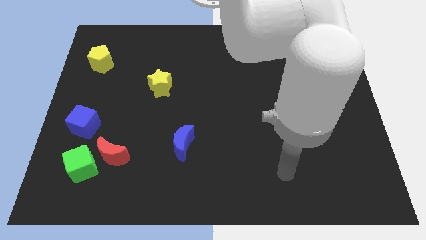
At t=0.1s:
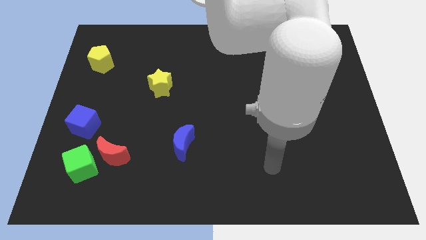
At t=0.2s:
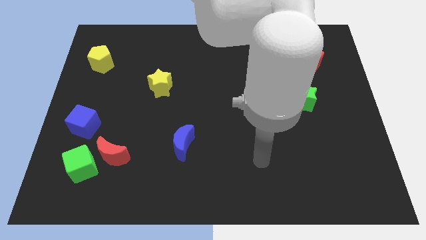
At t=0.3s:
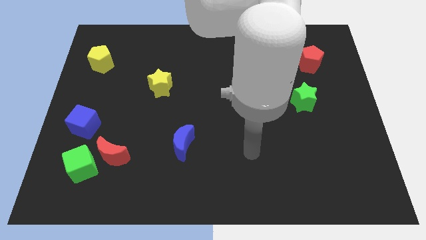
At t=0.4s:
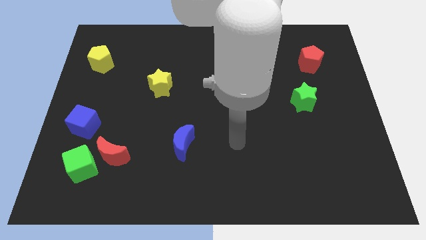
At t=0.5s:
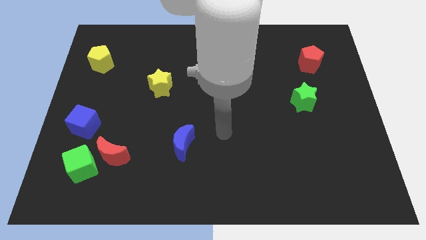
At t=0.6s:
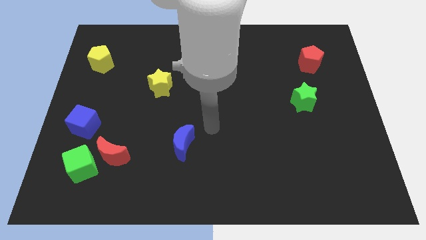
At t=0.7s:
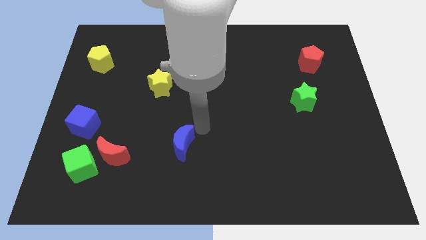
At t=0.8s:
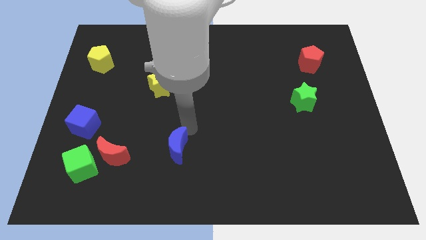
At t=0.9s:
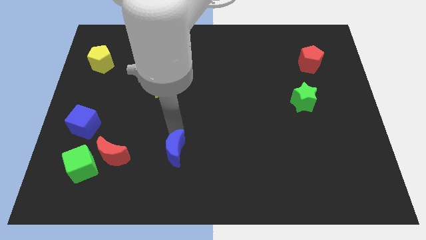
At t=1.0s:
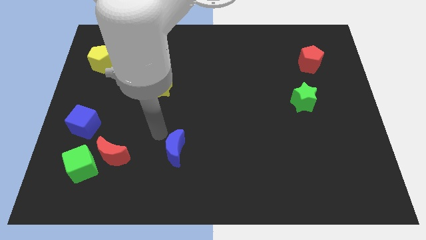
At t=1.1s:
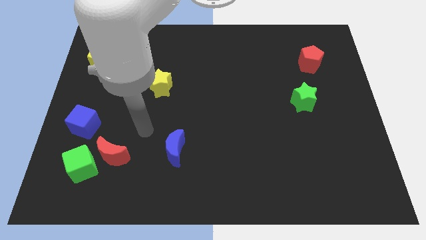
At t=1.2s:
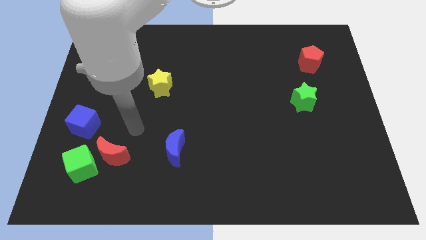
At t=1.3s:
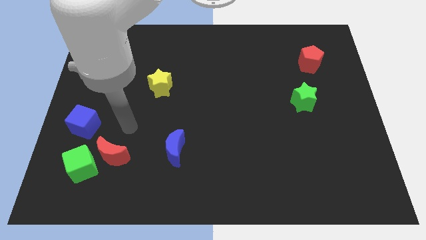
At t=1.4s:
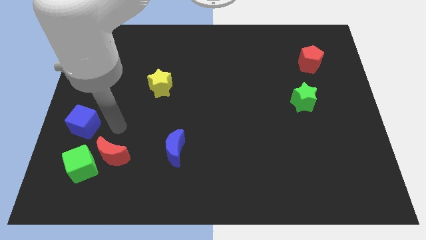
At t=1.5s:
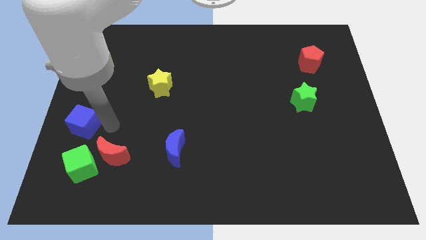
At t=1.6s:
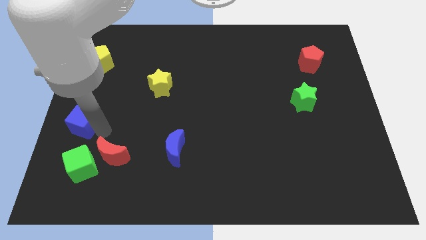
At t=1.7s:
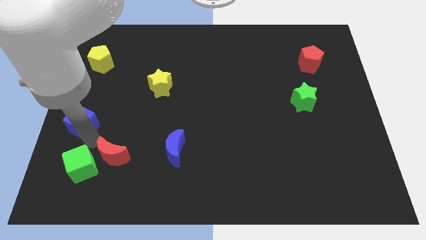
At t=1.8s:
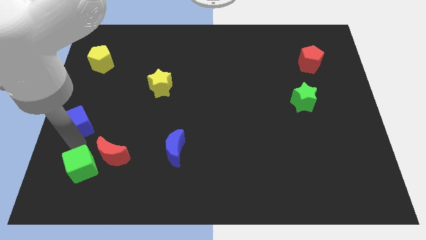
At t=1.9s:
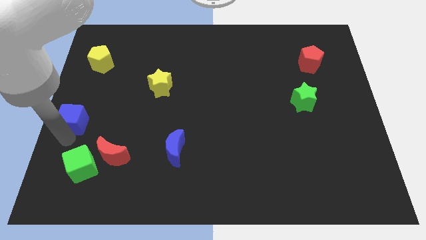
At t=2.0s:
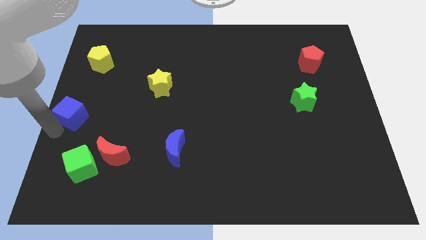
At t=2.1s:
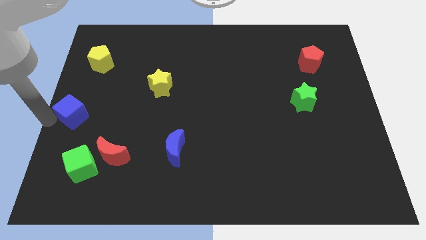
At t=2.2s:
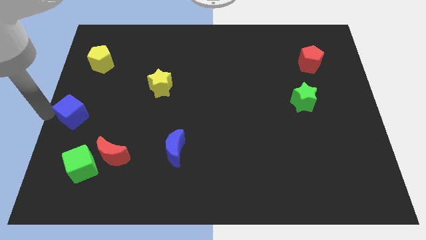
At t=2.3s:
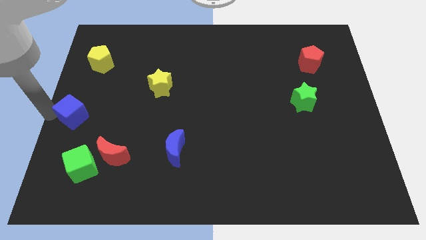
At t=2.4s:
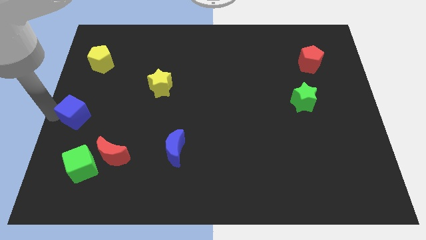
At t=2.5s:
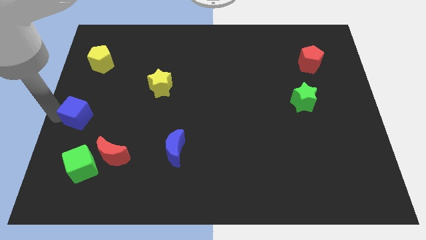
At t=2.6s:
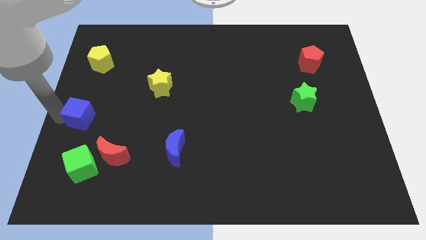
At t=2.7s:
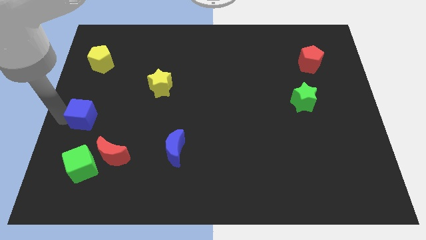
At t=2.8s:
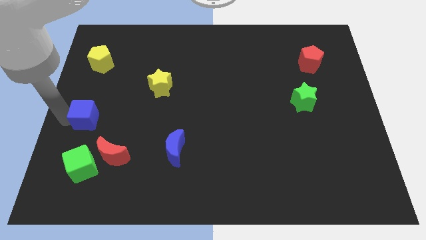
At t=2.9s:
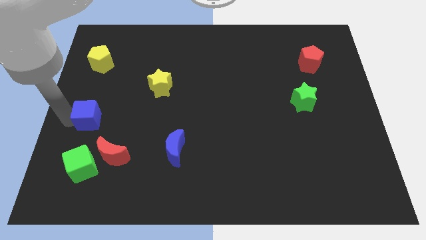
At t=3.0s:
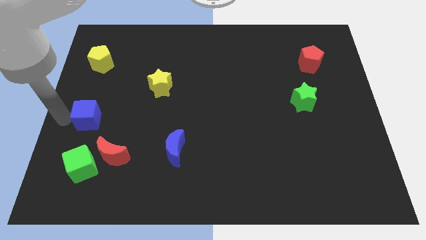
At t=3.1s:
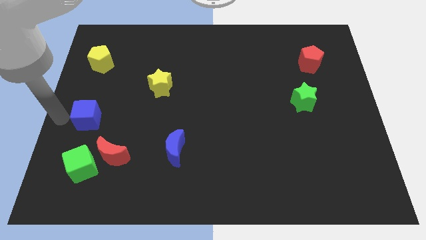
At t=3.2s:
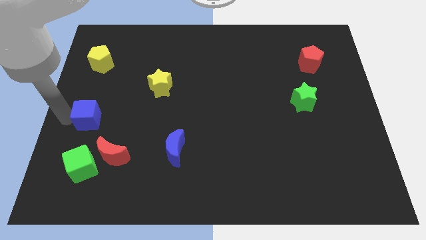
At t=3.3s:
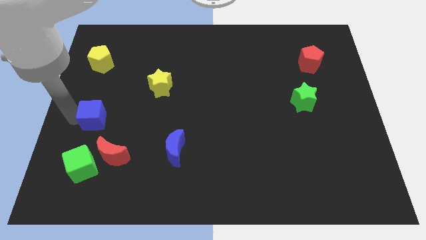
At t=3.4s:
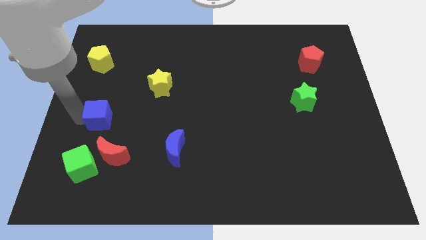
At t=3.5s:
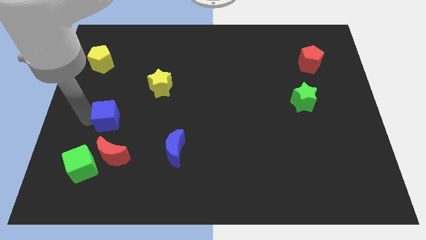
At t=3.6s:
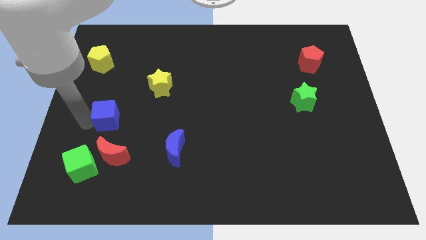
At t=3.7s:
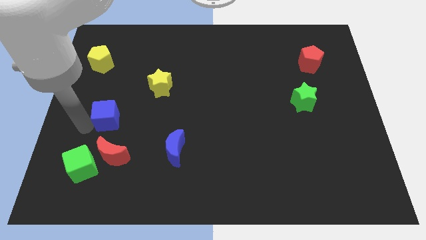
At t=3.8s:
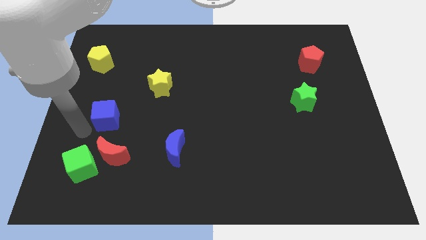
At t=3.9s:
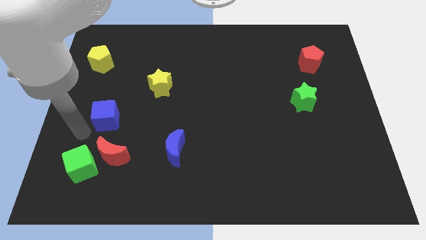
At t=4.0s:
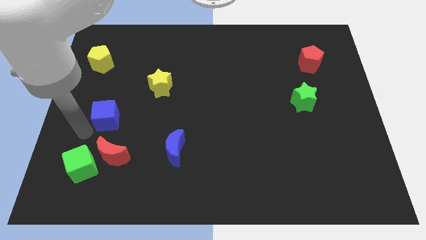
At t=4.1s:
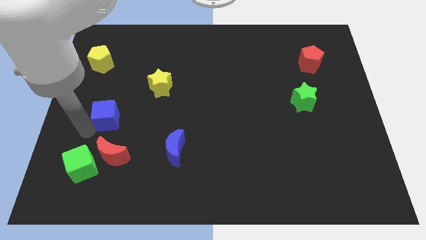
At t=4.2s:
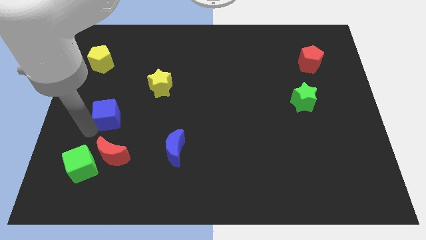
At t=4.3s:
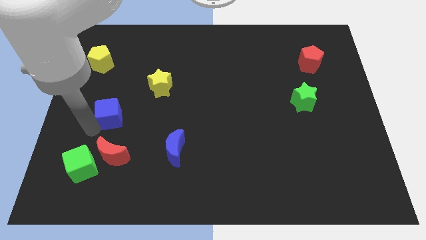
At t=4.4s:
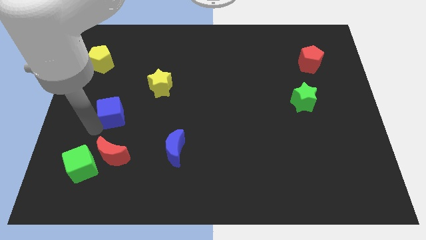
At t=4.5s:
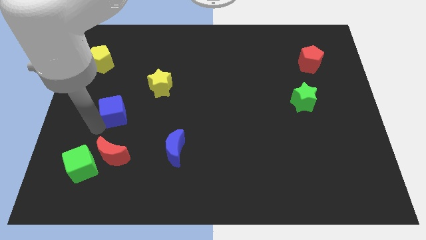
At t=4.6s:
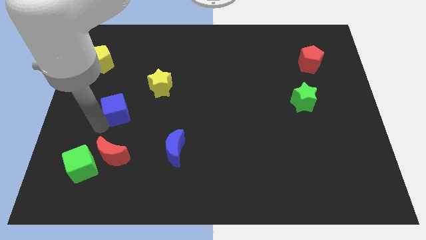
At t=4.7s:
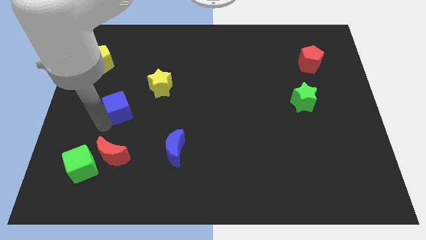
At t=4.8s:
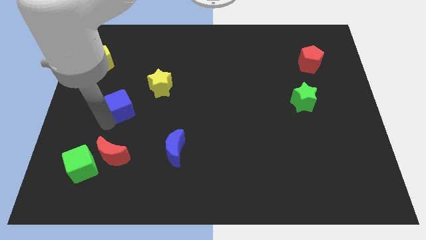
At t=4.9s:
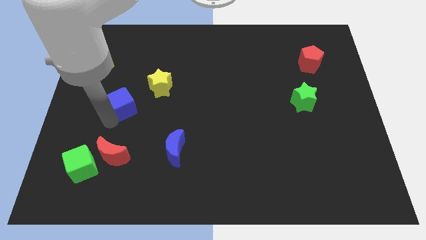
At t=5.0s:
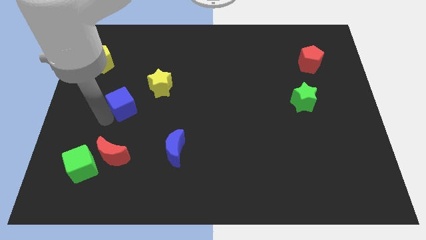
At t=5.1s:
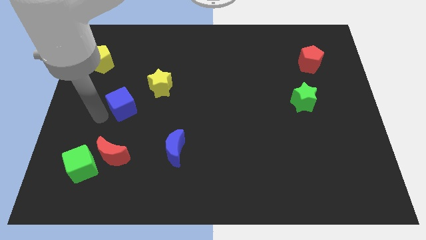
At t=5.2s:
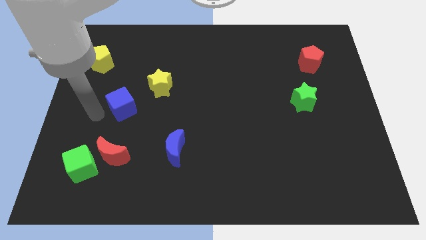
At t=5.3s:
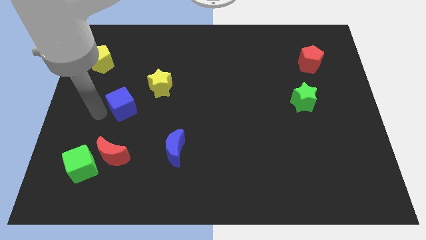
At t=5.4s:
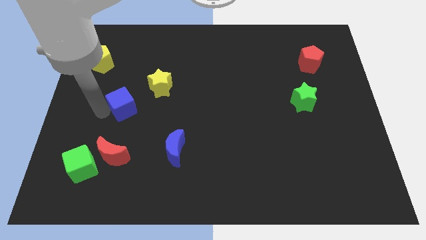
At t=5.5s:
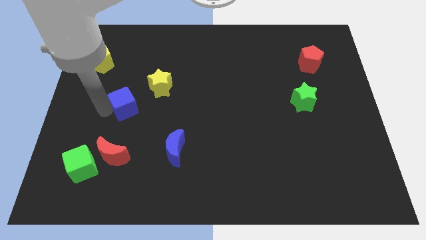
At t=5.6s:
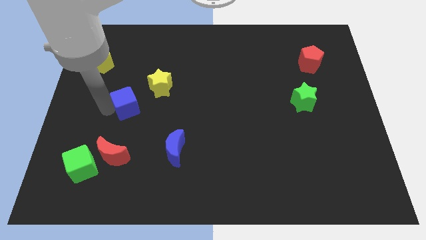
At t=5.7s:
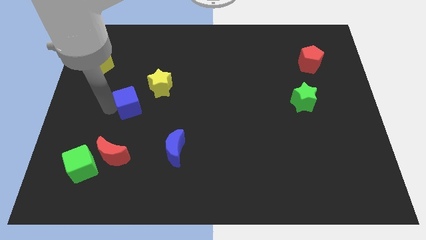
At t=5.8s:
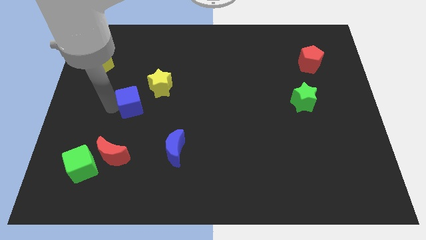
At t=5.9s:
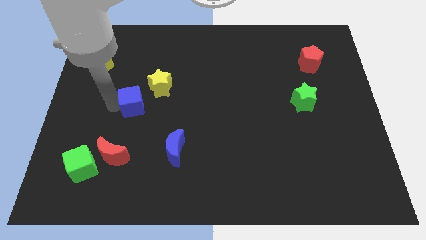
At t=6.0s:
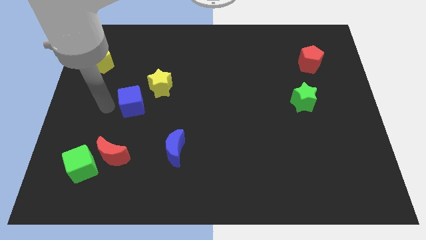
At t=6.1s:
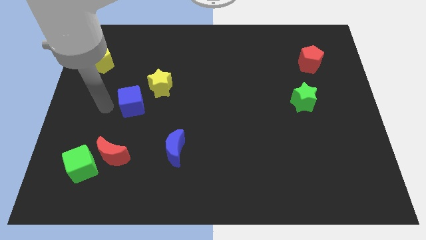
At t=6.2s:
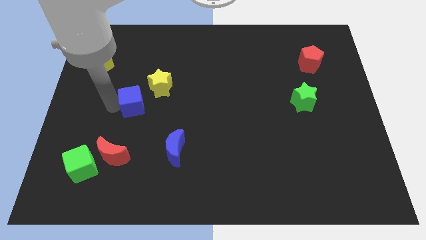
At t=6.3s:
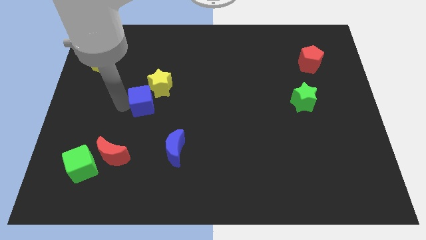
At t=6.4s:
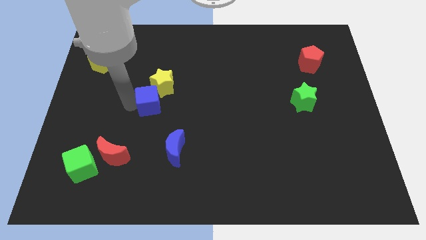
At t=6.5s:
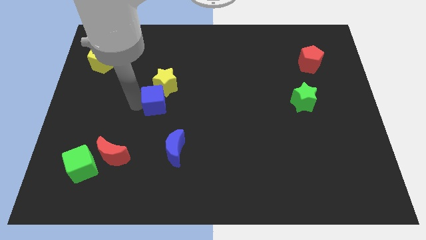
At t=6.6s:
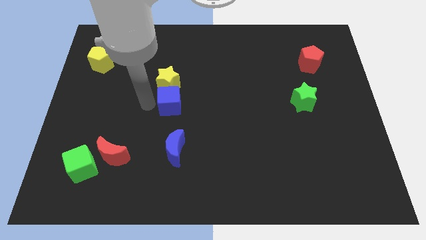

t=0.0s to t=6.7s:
put the blue cube to the center

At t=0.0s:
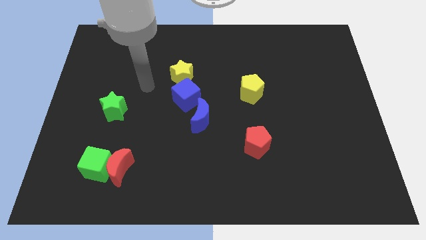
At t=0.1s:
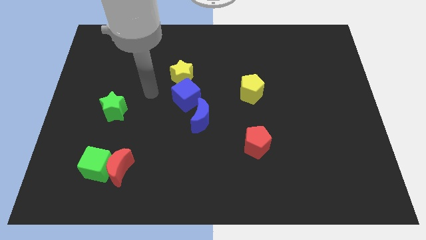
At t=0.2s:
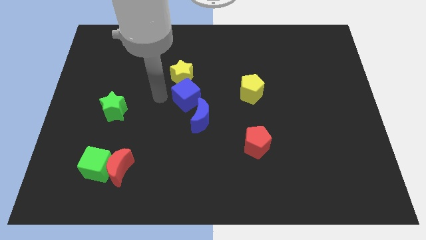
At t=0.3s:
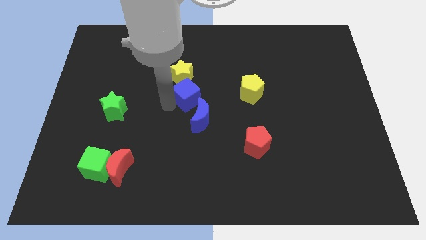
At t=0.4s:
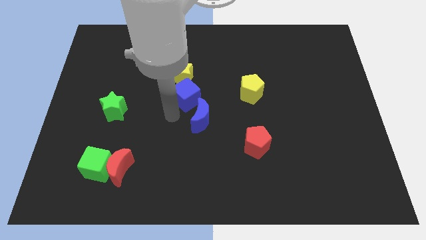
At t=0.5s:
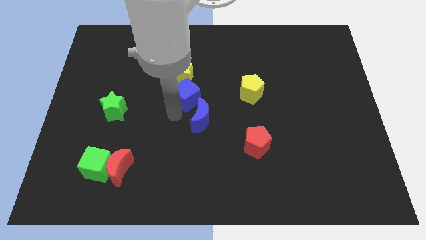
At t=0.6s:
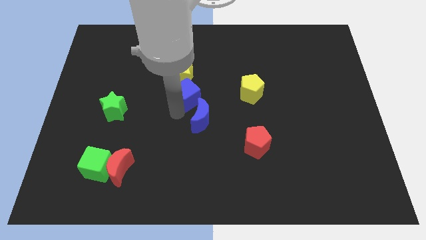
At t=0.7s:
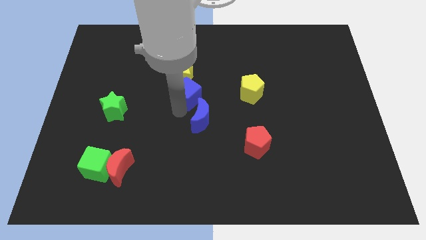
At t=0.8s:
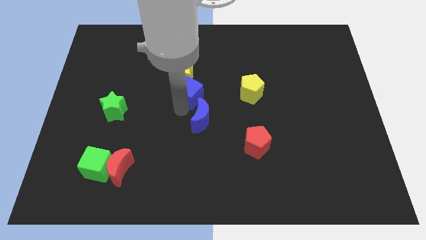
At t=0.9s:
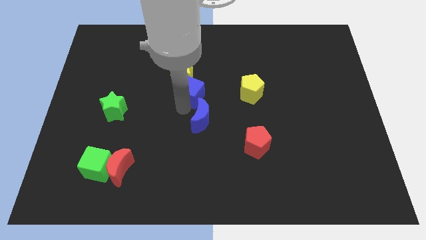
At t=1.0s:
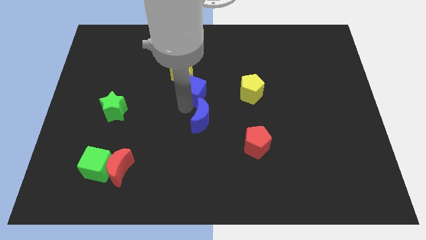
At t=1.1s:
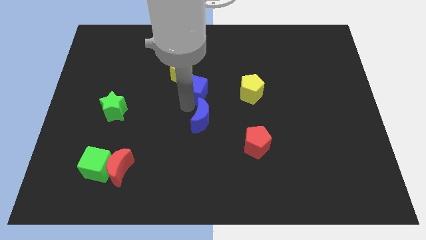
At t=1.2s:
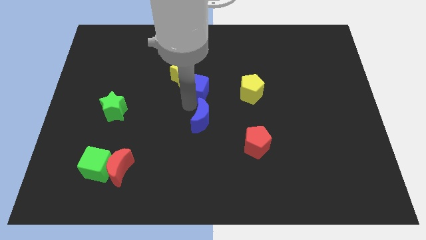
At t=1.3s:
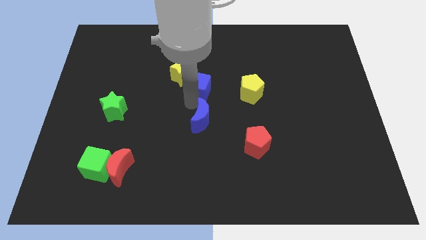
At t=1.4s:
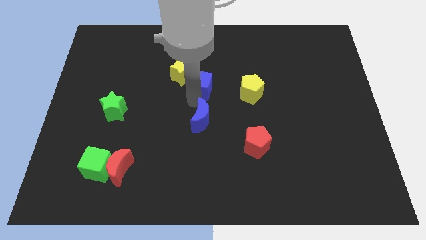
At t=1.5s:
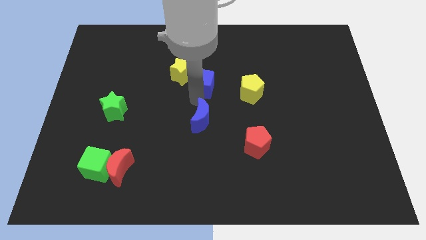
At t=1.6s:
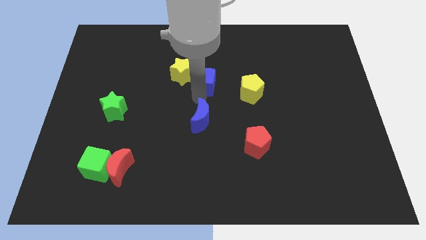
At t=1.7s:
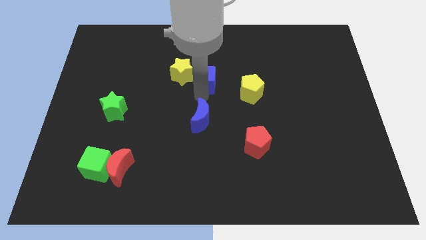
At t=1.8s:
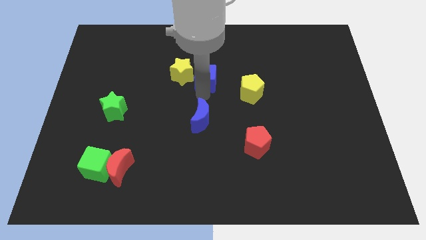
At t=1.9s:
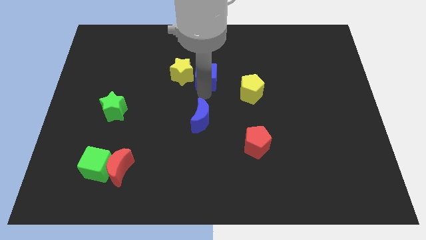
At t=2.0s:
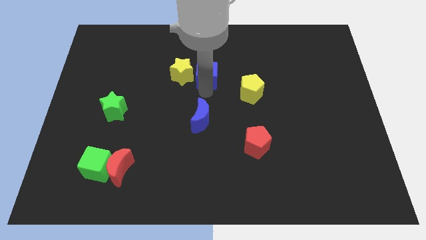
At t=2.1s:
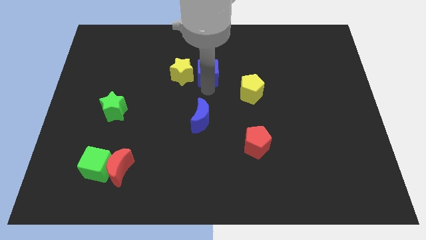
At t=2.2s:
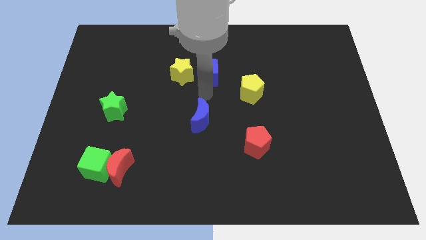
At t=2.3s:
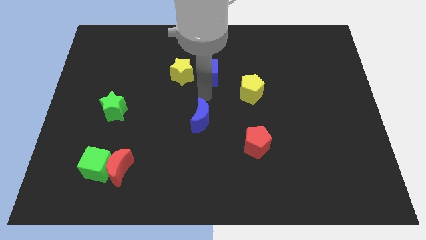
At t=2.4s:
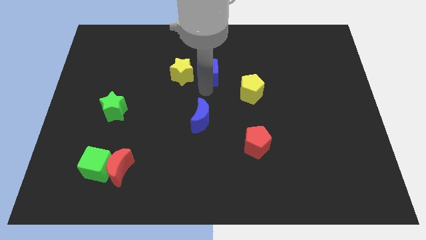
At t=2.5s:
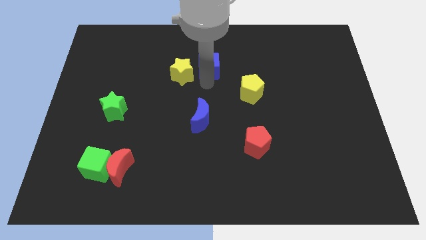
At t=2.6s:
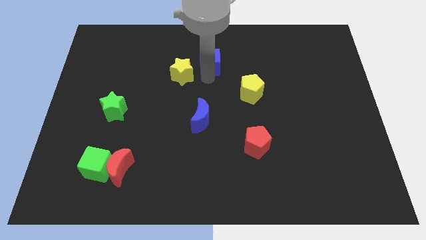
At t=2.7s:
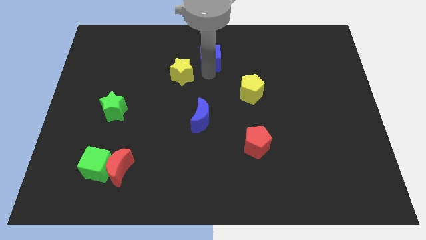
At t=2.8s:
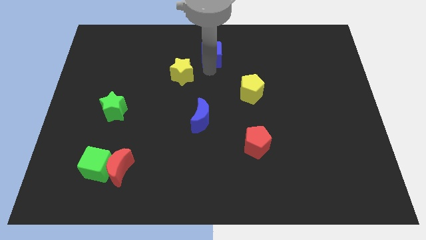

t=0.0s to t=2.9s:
move the blue cube to the top side
